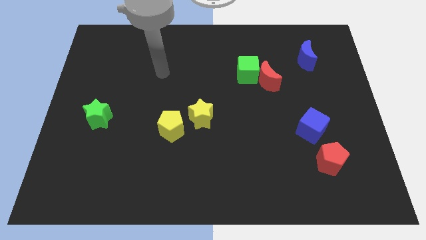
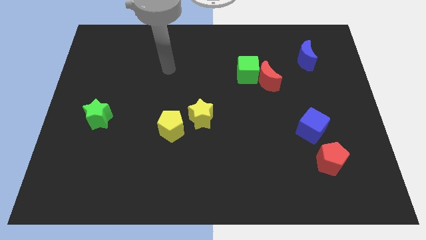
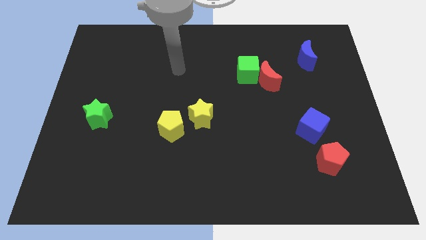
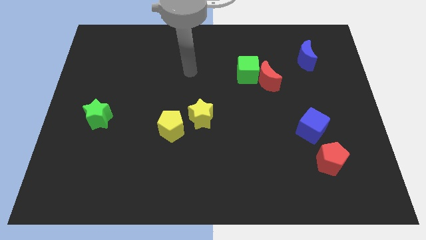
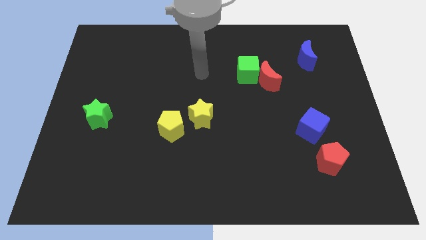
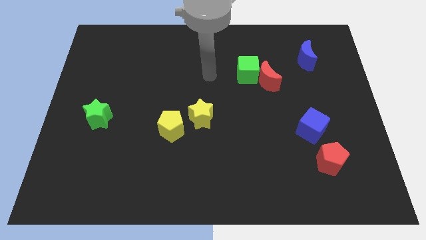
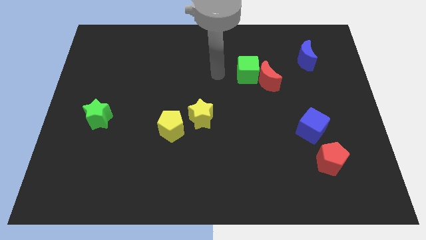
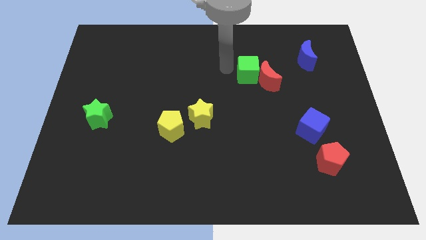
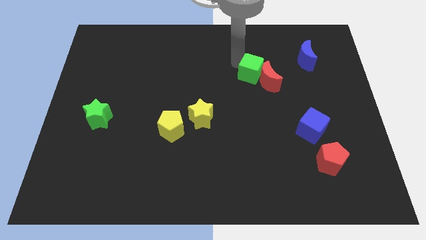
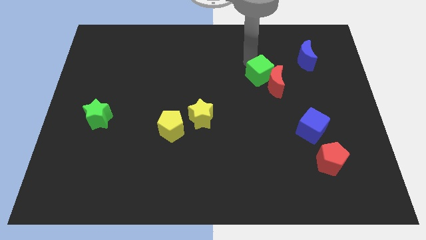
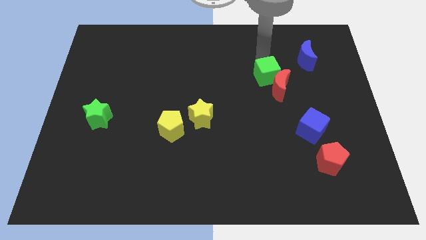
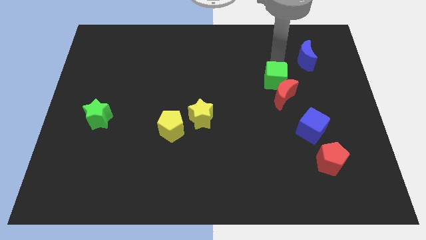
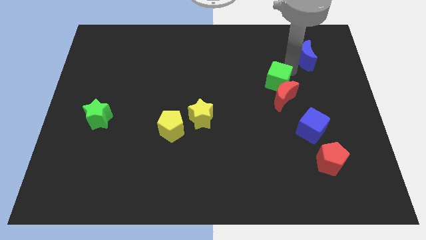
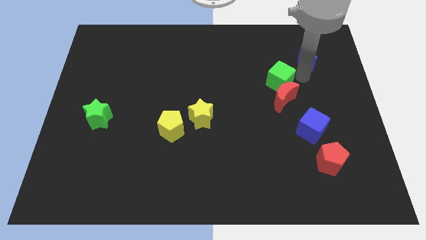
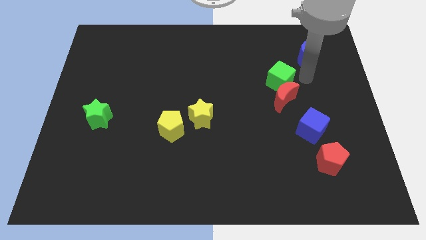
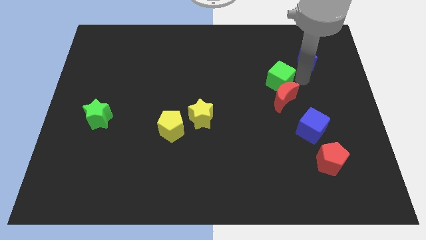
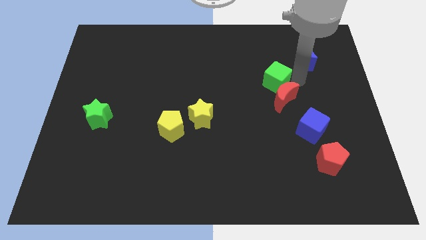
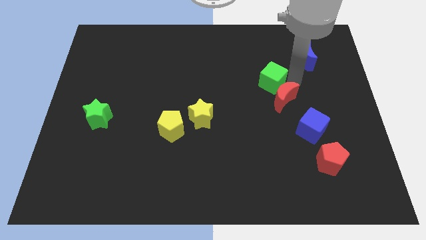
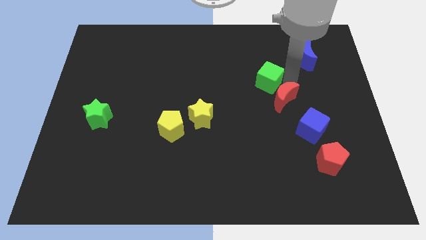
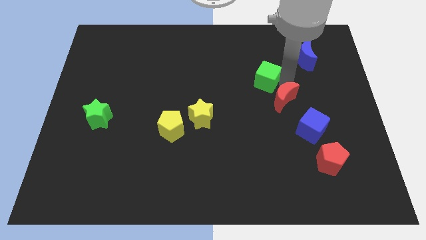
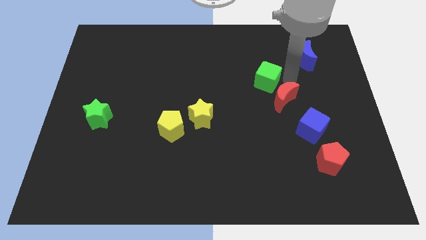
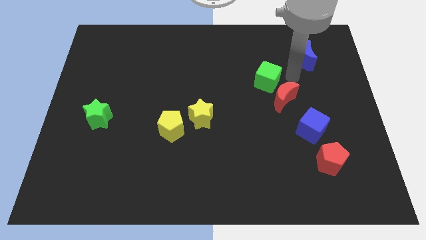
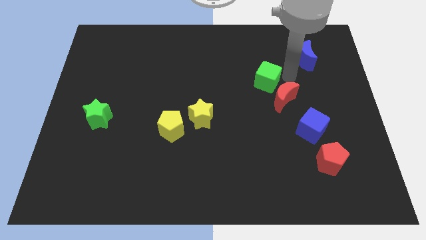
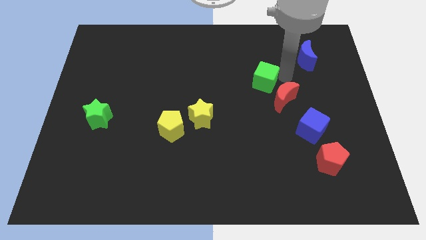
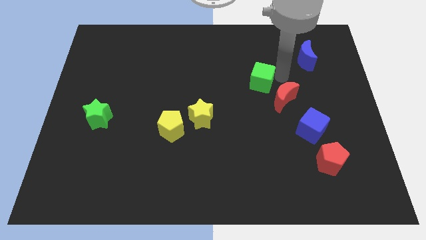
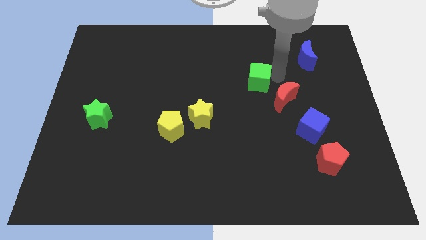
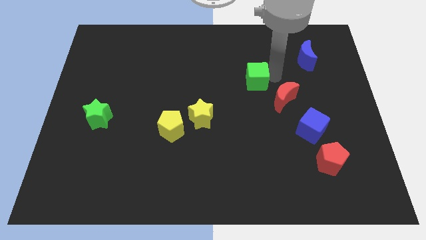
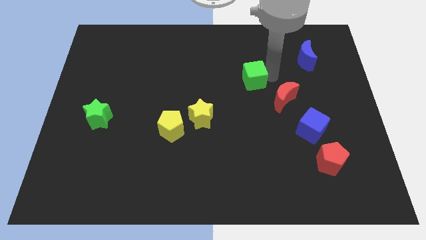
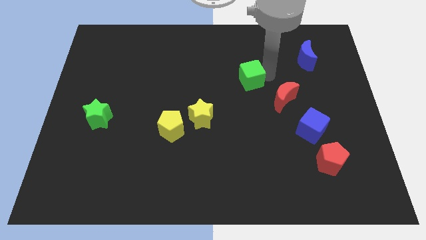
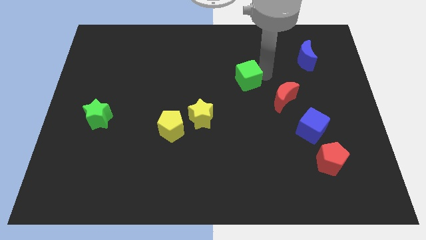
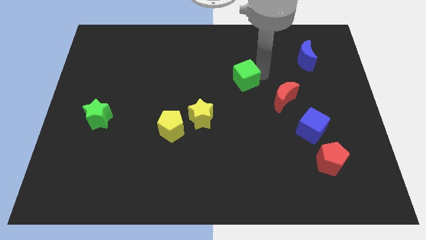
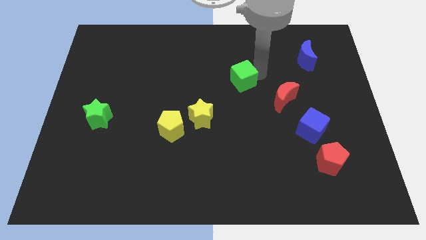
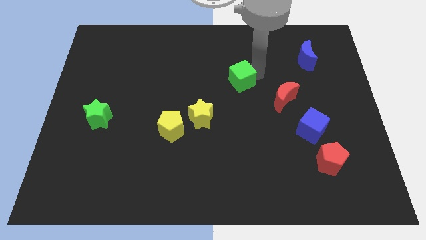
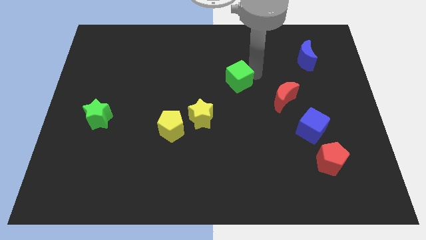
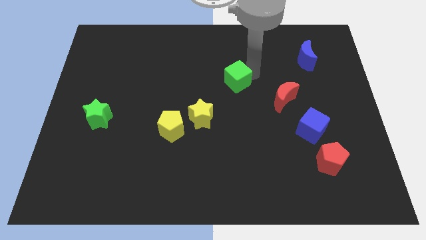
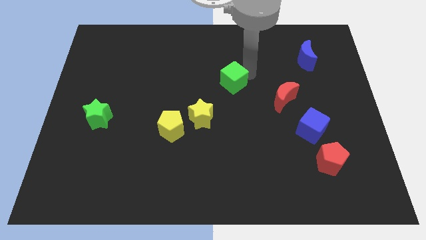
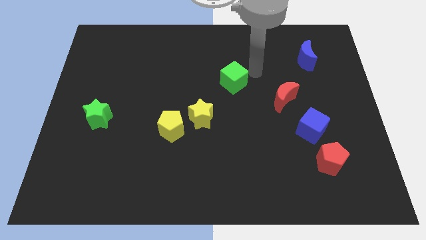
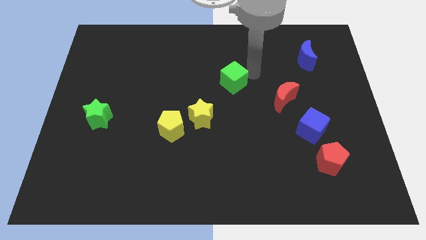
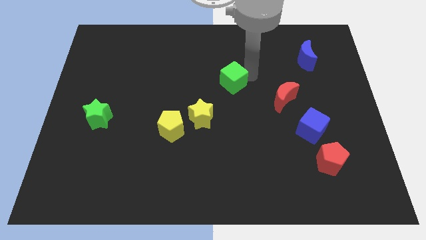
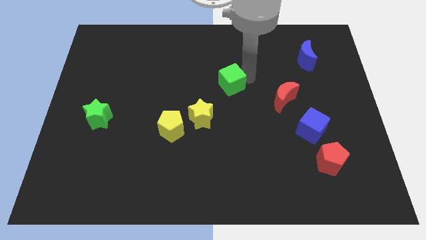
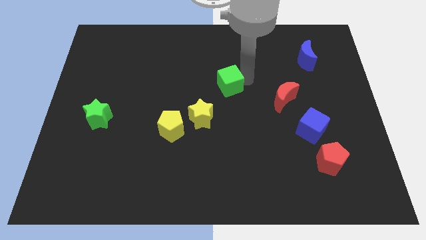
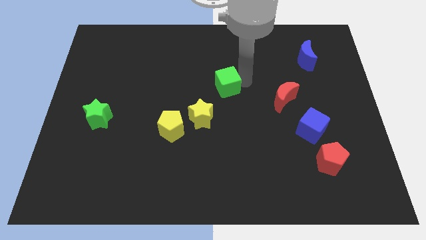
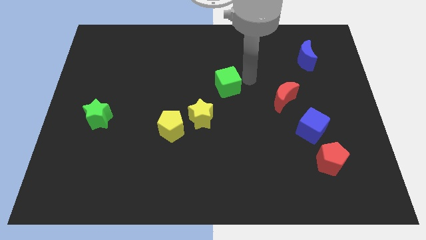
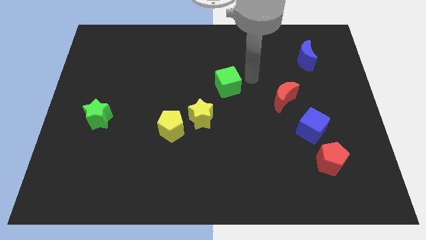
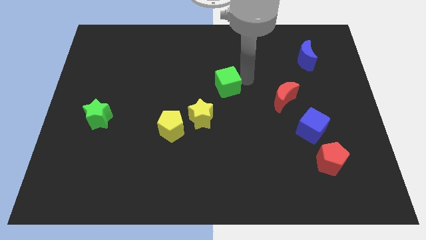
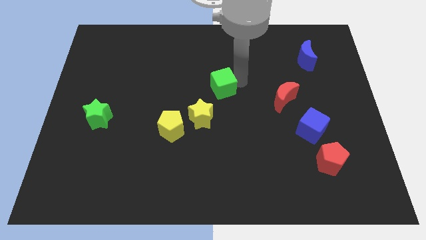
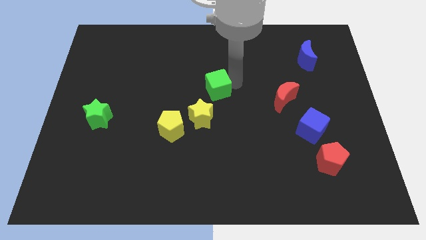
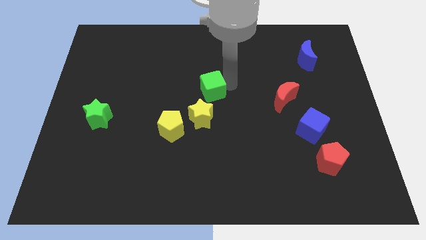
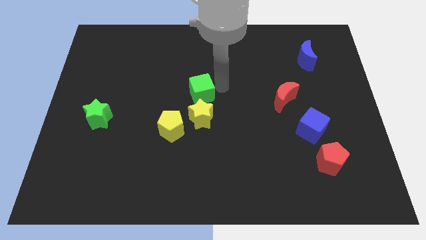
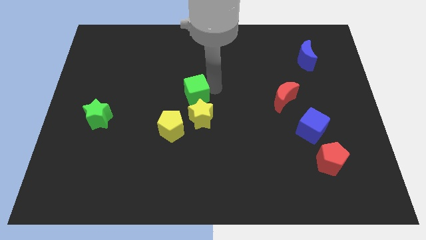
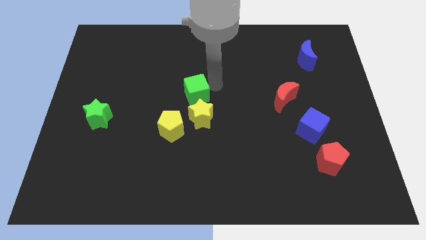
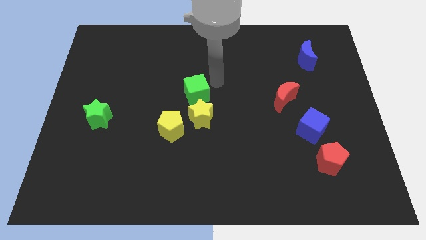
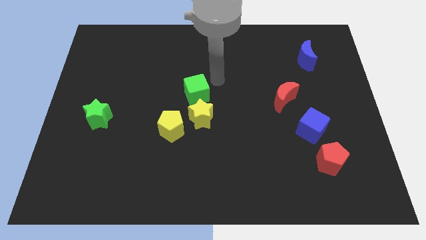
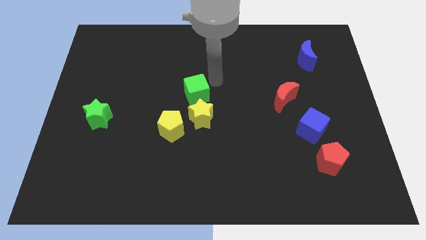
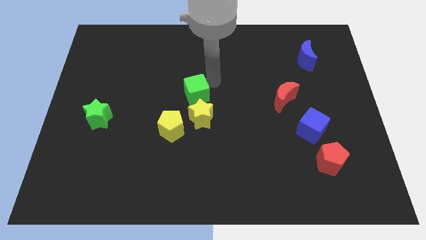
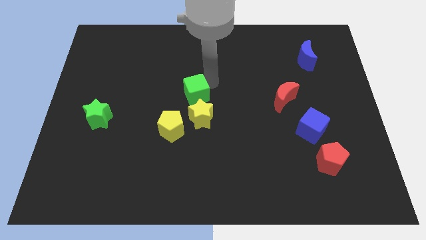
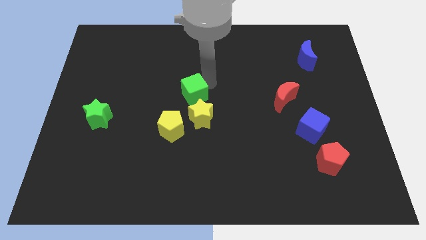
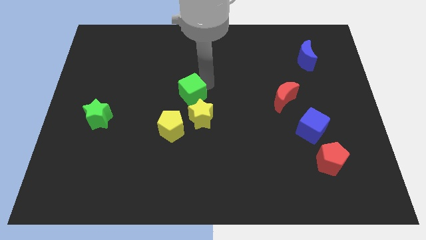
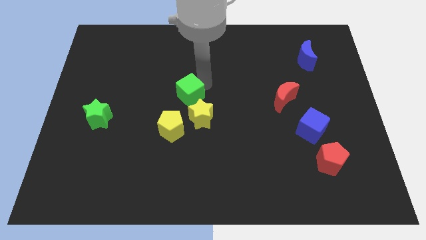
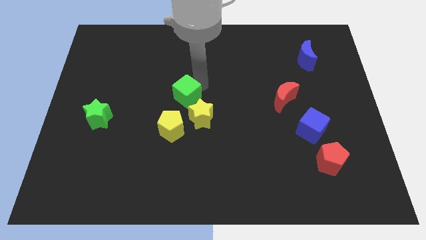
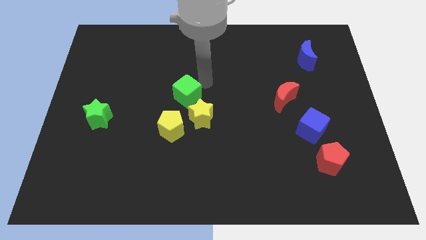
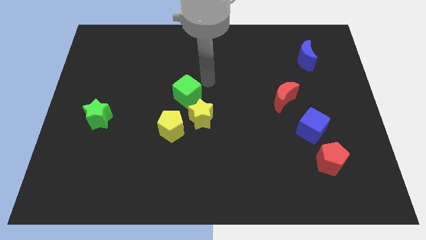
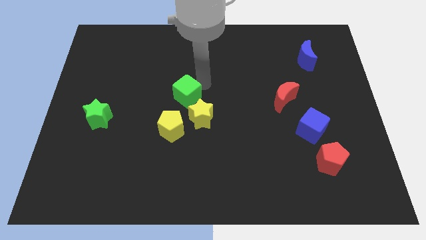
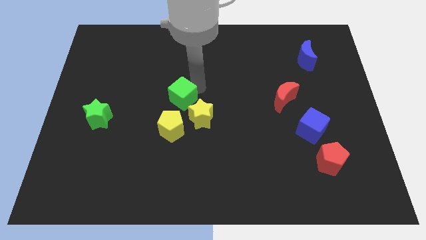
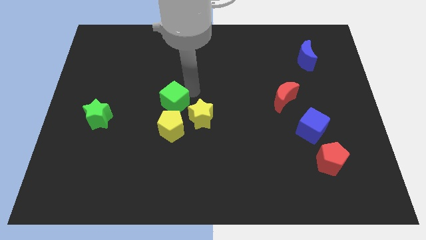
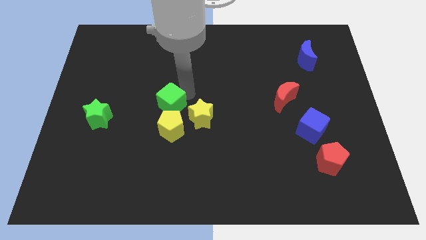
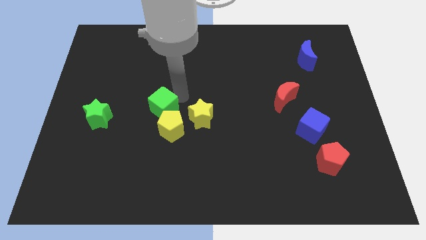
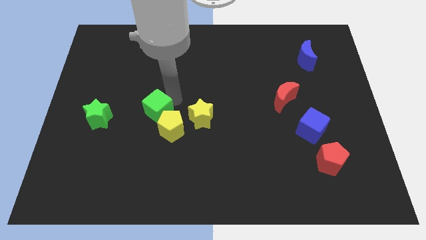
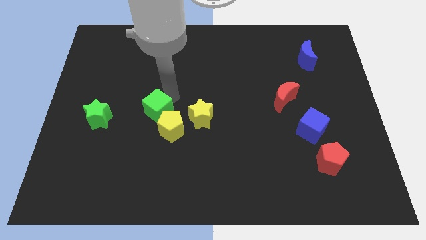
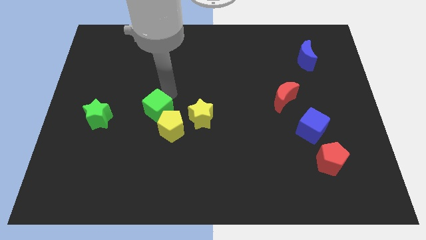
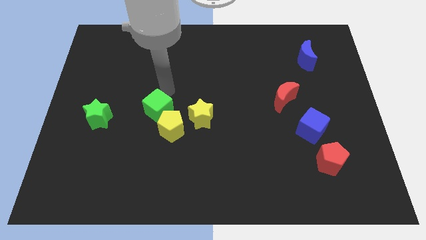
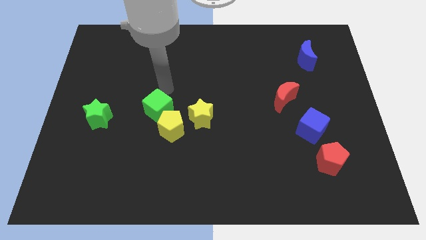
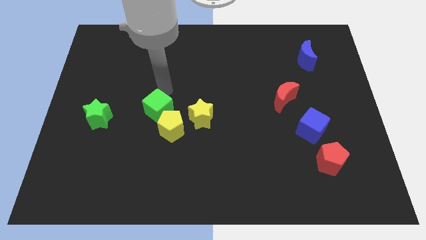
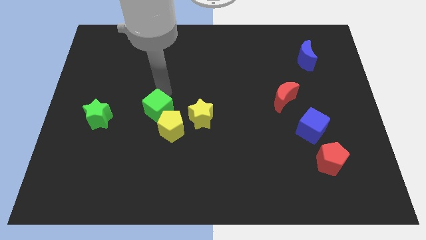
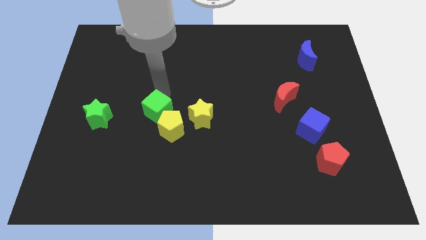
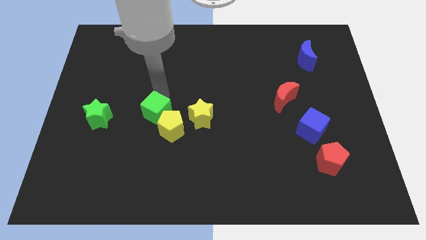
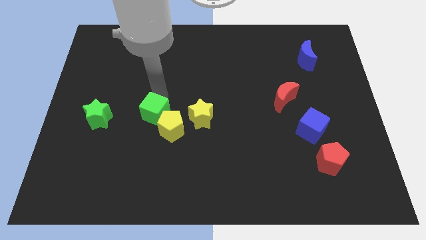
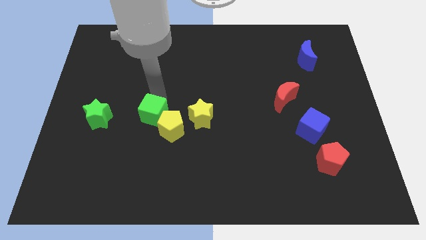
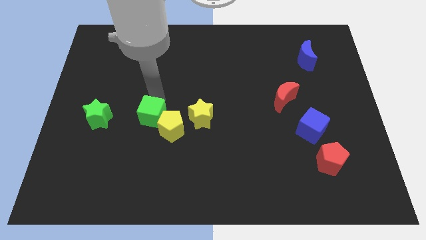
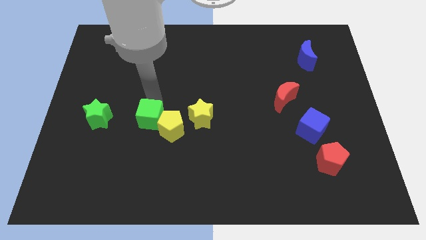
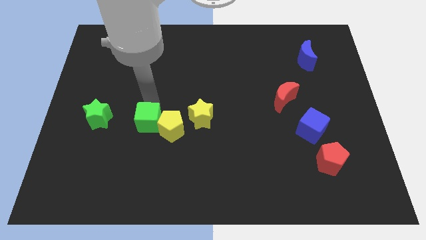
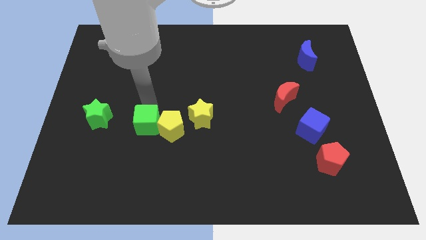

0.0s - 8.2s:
move the green cube diagonally down and to the left of the yellow pentagon
